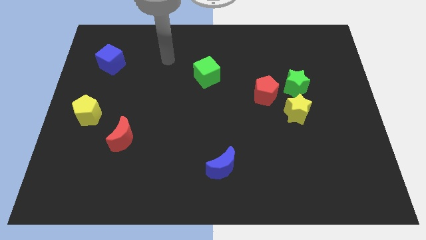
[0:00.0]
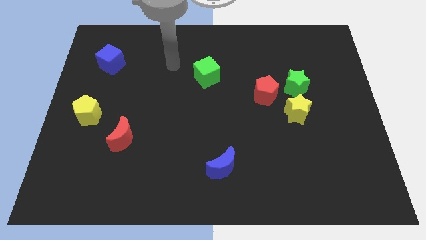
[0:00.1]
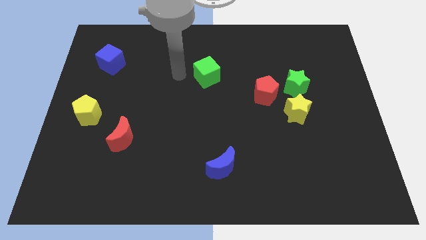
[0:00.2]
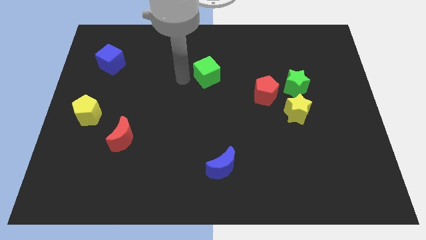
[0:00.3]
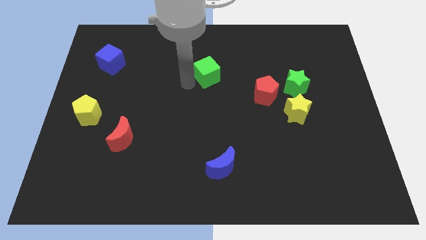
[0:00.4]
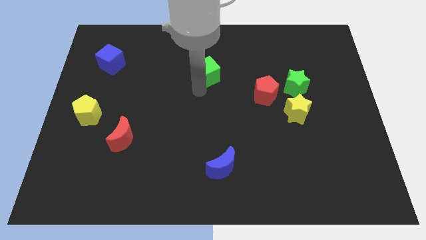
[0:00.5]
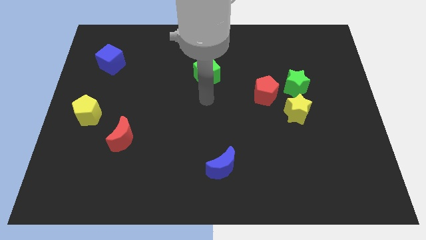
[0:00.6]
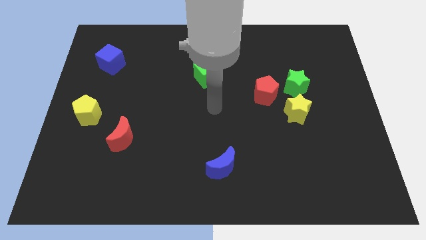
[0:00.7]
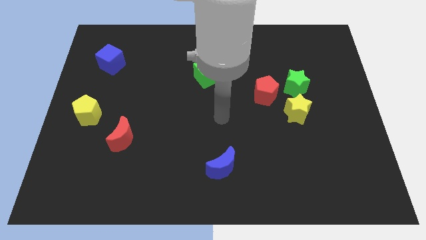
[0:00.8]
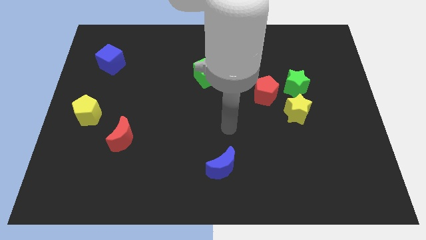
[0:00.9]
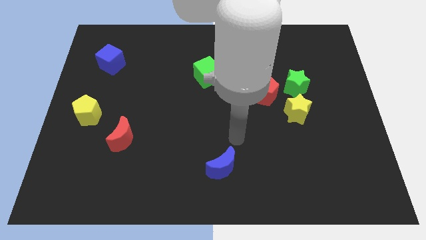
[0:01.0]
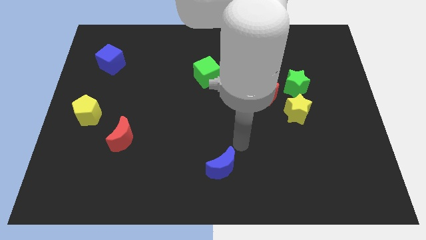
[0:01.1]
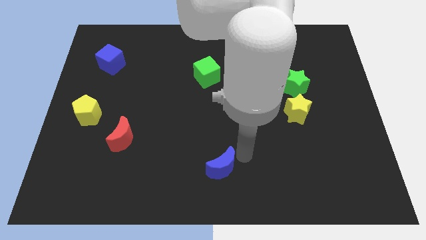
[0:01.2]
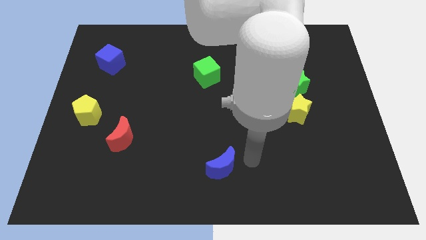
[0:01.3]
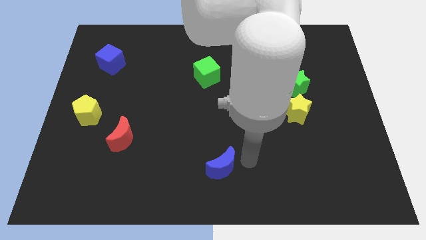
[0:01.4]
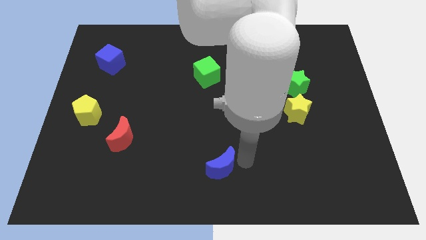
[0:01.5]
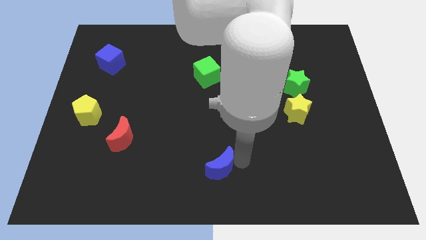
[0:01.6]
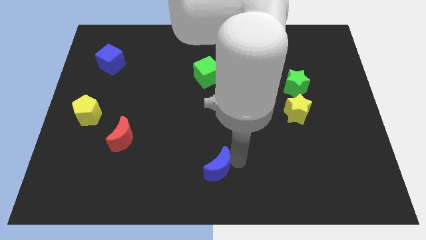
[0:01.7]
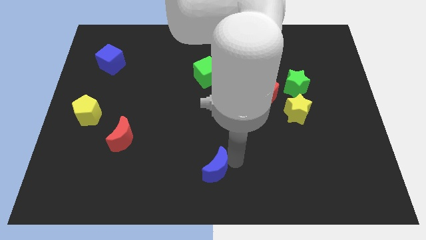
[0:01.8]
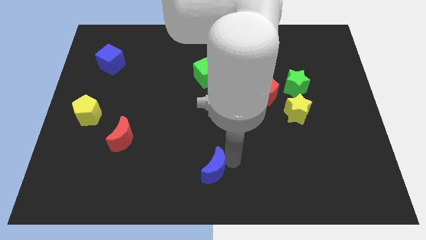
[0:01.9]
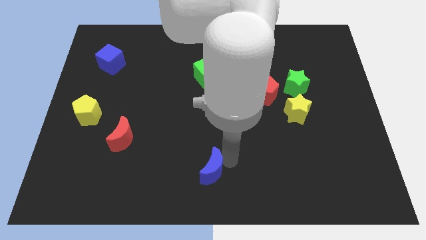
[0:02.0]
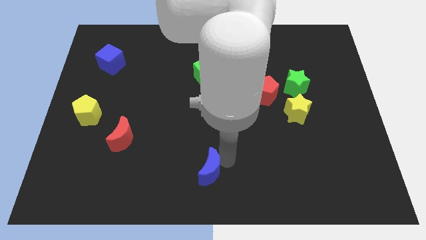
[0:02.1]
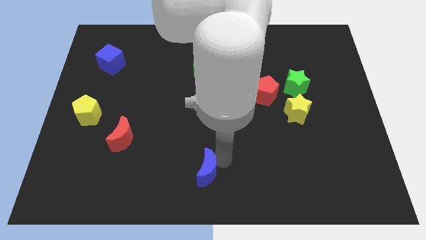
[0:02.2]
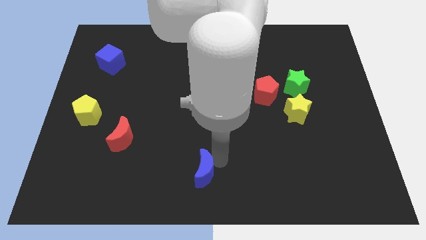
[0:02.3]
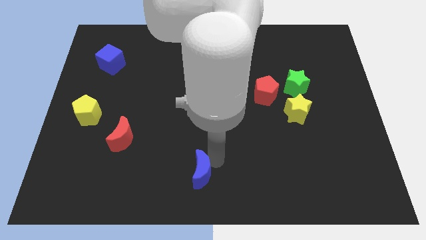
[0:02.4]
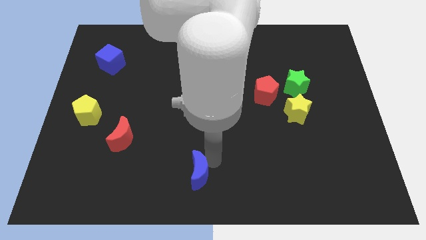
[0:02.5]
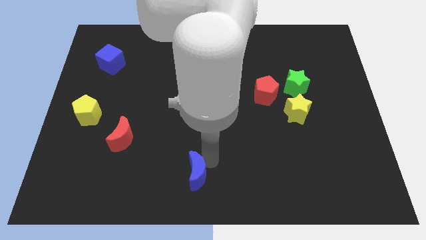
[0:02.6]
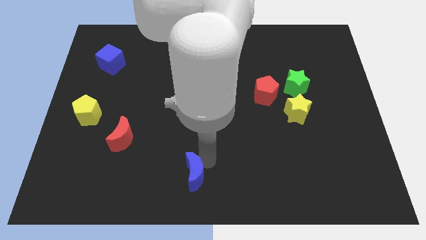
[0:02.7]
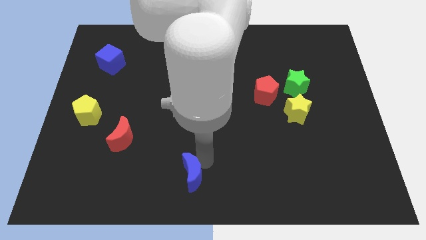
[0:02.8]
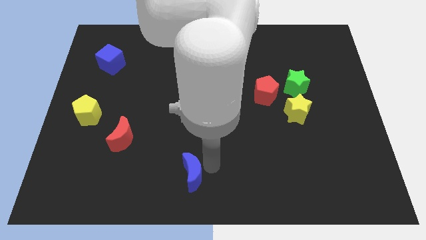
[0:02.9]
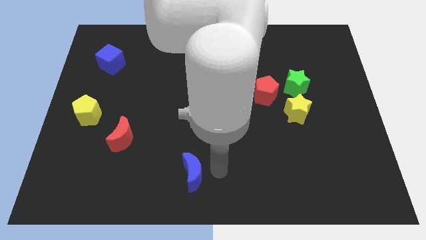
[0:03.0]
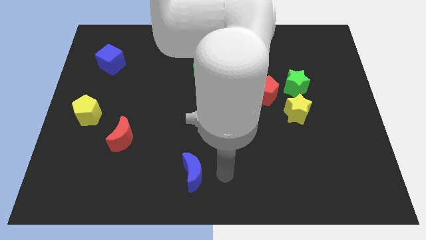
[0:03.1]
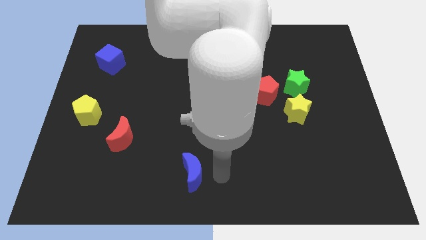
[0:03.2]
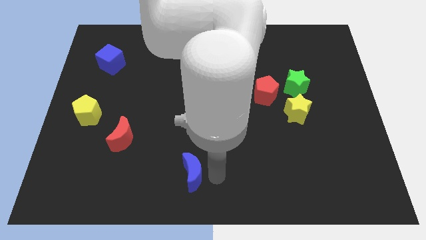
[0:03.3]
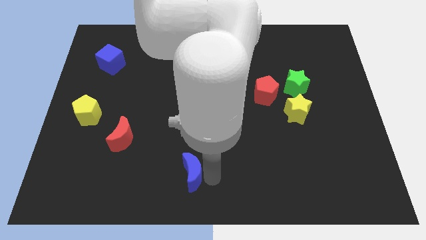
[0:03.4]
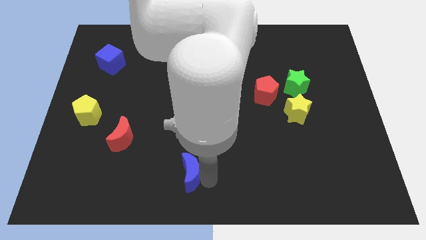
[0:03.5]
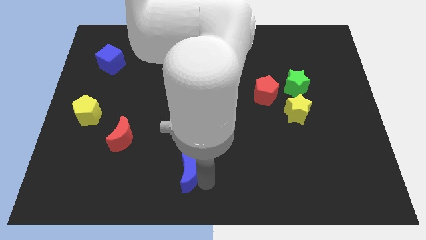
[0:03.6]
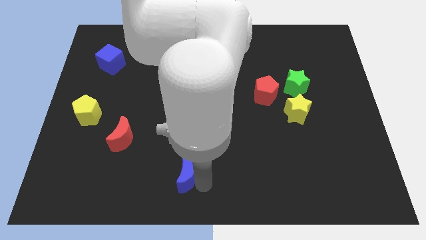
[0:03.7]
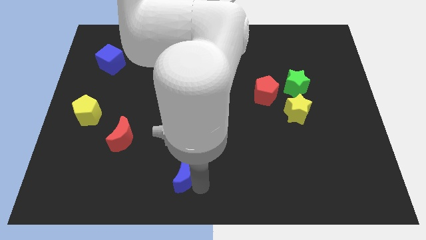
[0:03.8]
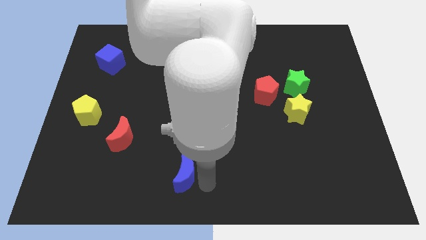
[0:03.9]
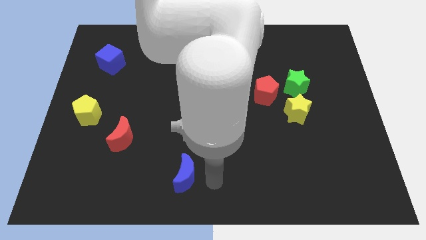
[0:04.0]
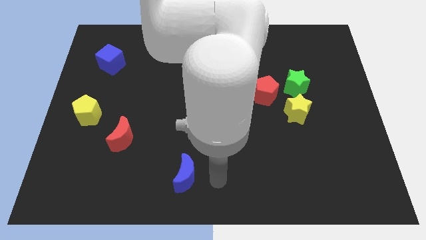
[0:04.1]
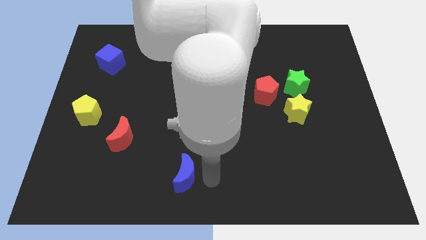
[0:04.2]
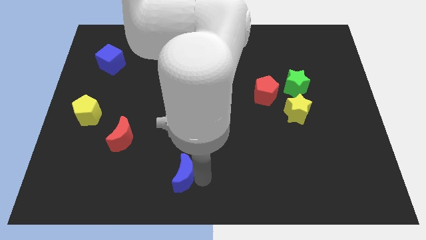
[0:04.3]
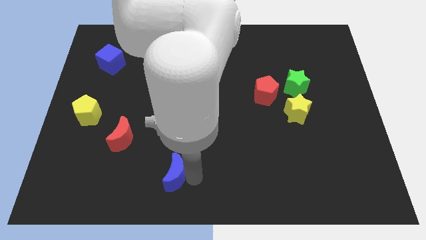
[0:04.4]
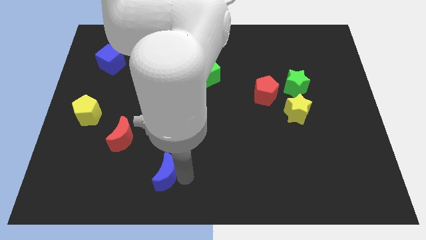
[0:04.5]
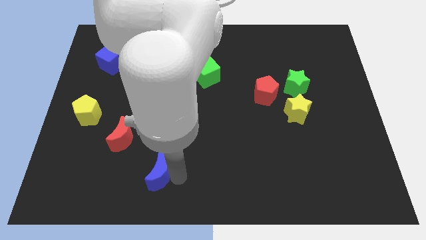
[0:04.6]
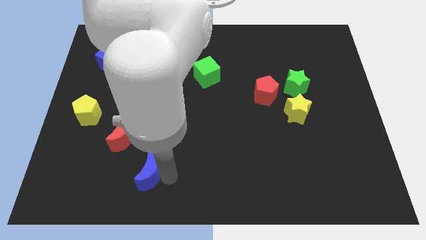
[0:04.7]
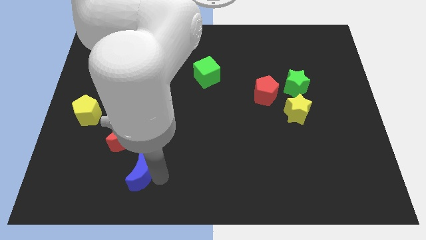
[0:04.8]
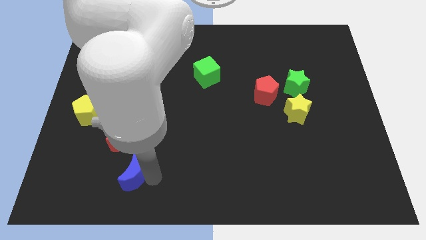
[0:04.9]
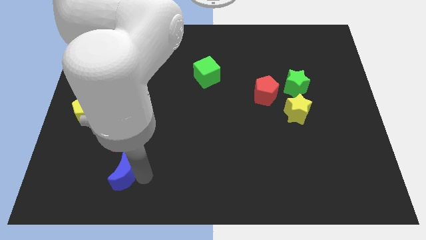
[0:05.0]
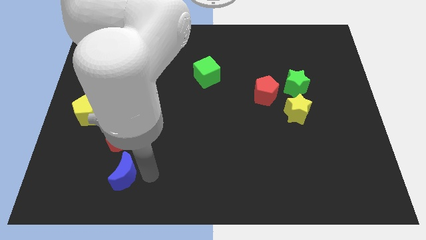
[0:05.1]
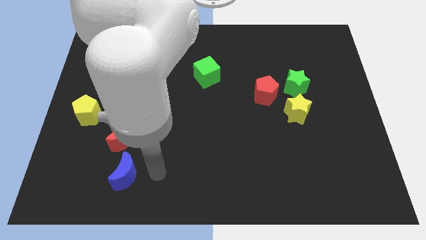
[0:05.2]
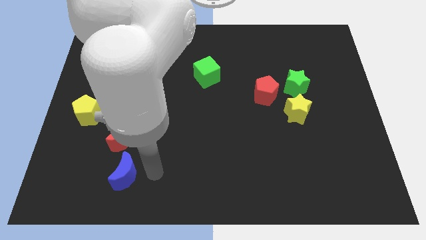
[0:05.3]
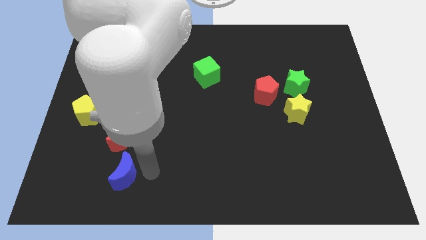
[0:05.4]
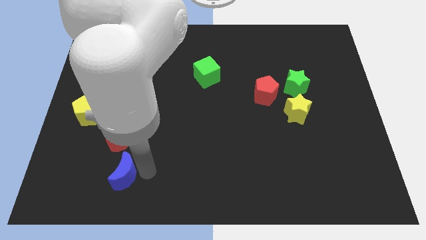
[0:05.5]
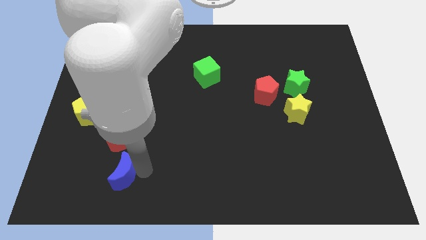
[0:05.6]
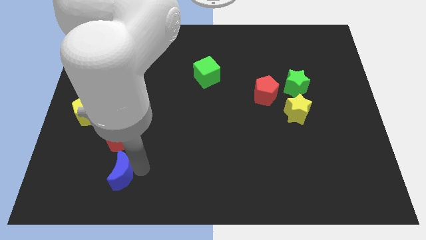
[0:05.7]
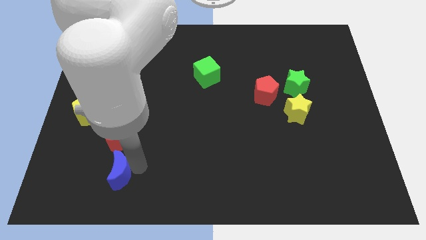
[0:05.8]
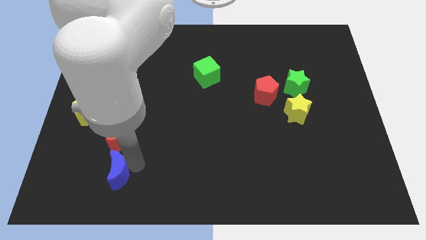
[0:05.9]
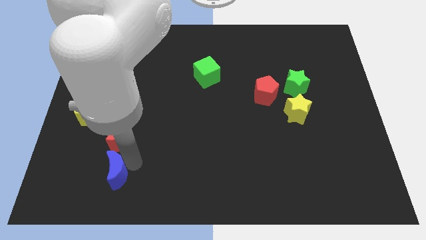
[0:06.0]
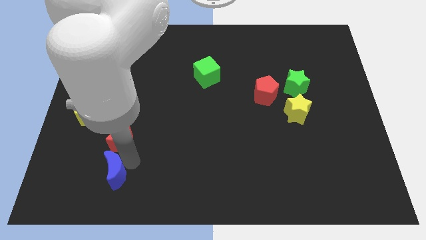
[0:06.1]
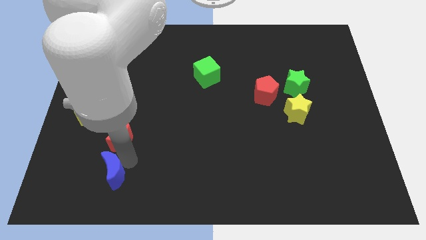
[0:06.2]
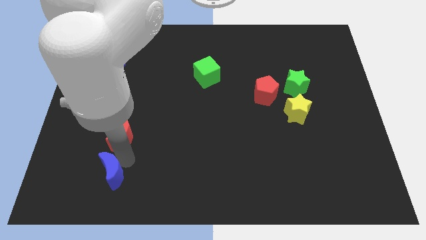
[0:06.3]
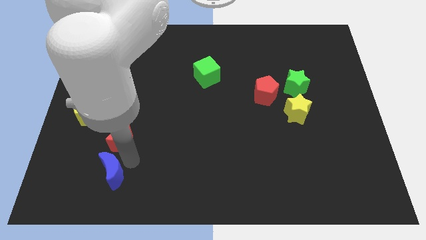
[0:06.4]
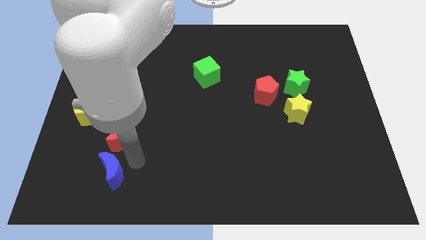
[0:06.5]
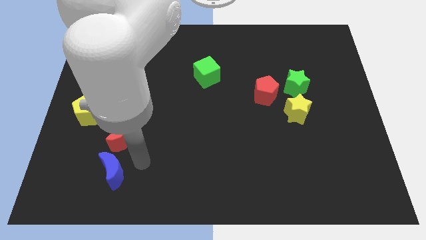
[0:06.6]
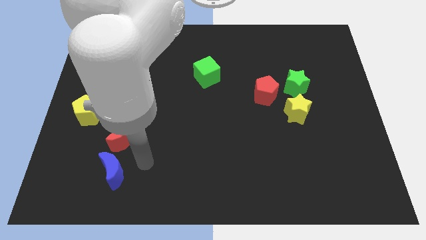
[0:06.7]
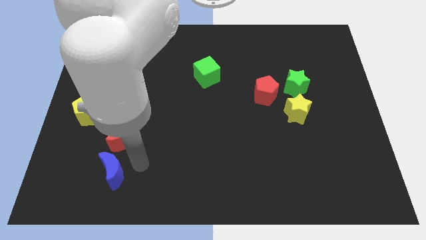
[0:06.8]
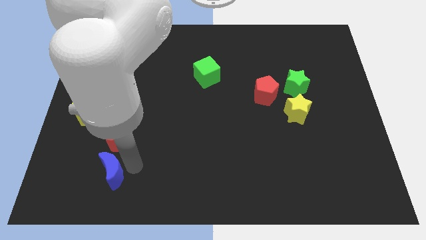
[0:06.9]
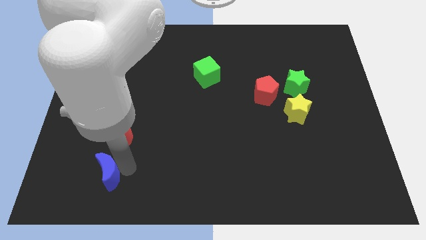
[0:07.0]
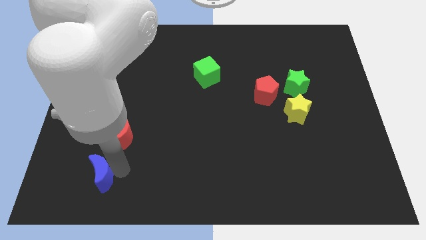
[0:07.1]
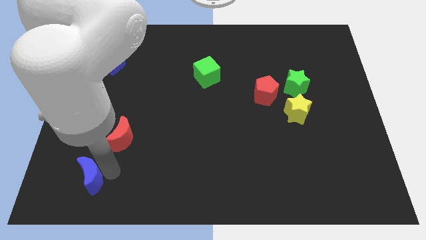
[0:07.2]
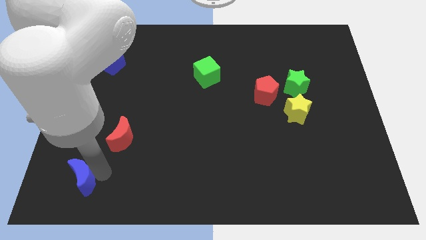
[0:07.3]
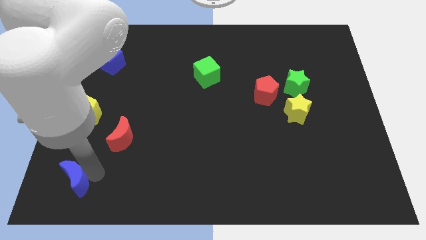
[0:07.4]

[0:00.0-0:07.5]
move the blue moon to the lower left corner
